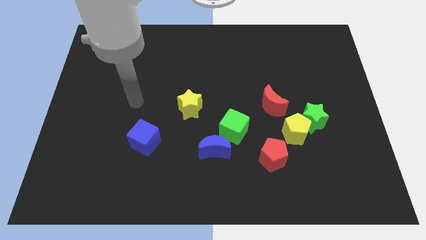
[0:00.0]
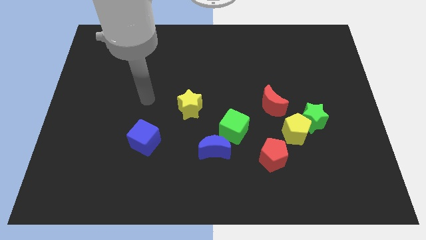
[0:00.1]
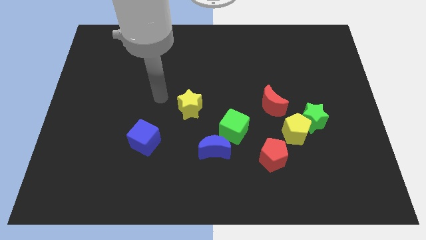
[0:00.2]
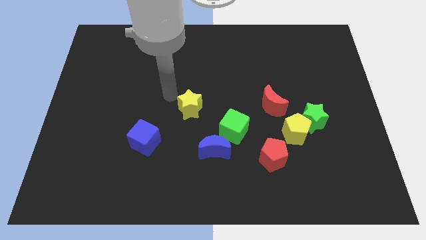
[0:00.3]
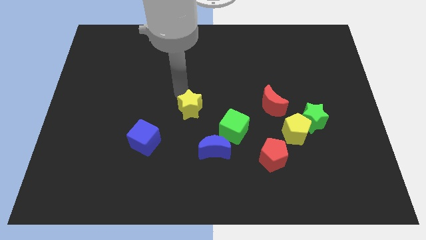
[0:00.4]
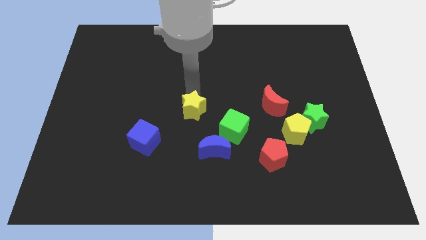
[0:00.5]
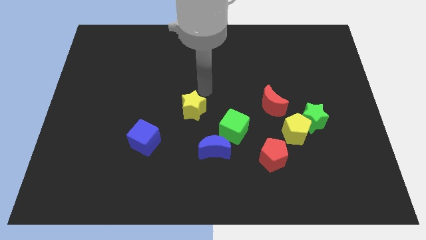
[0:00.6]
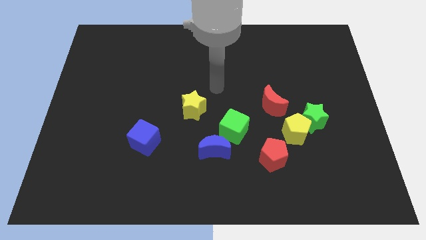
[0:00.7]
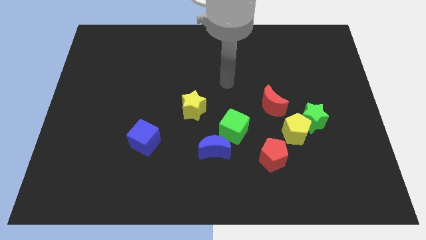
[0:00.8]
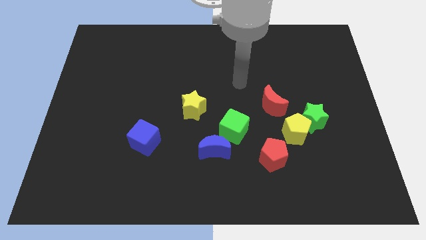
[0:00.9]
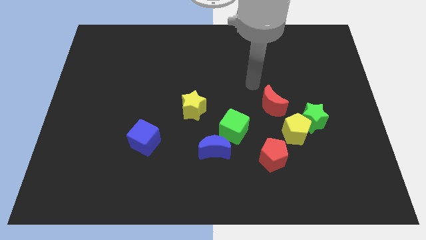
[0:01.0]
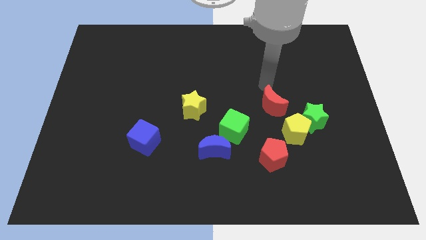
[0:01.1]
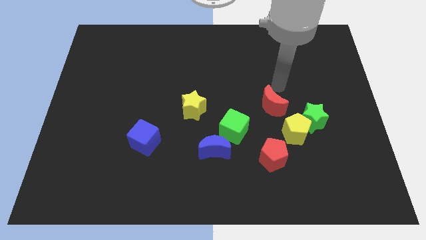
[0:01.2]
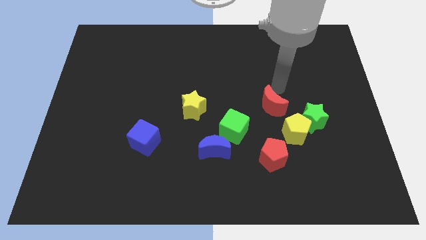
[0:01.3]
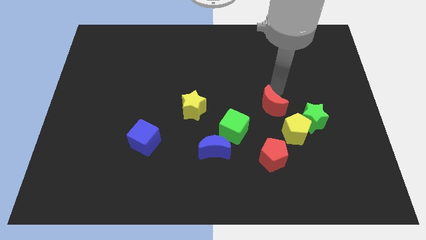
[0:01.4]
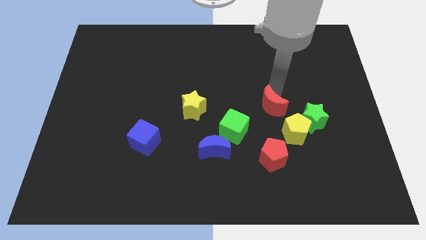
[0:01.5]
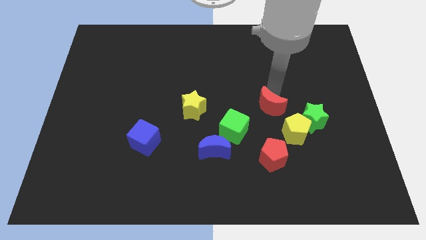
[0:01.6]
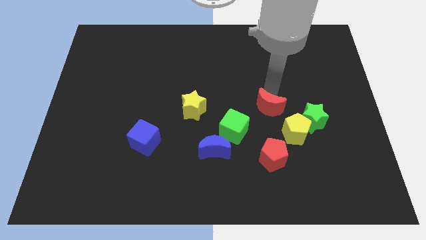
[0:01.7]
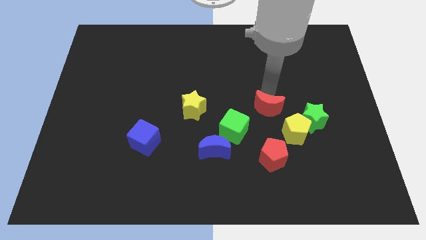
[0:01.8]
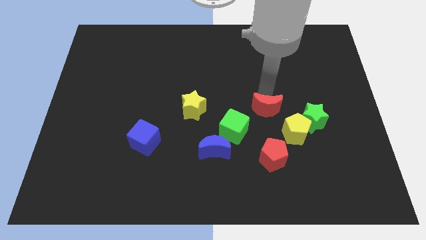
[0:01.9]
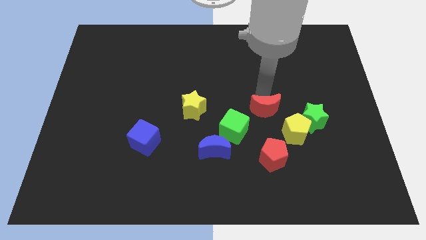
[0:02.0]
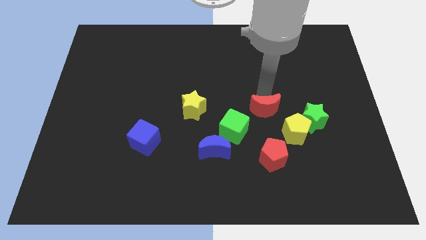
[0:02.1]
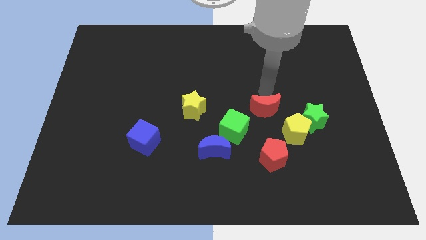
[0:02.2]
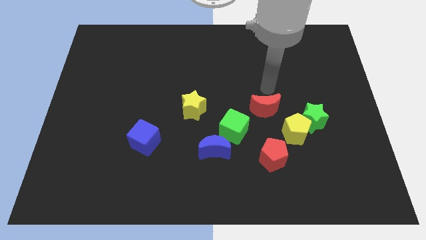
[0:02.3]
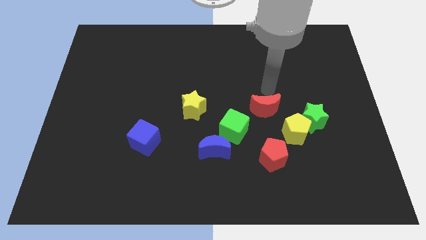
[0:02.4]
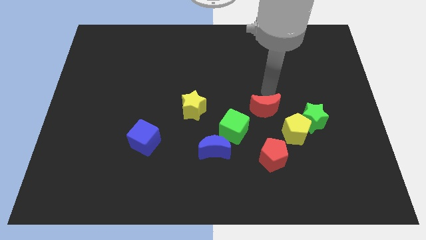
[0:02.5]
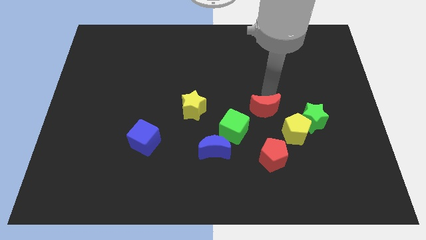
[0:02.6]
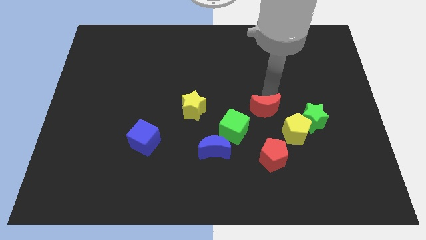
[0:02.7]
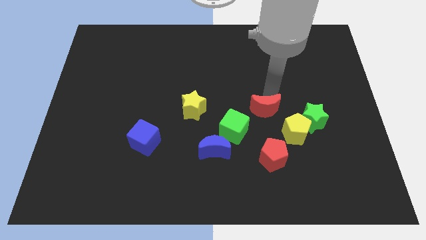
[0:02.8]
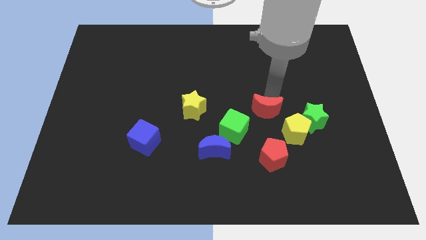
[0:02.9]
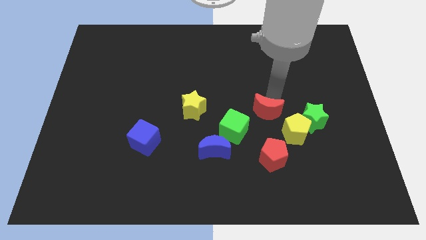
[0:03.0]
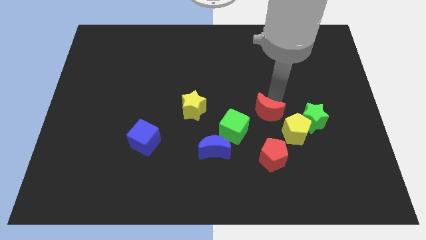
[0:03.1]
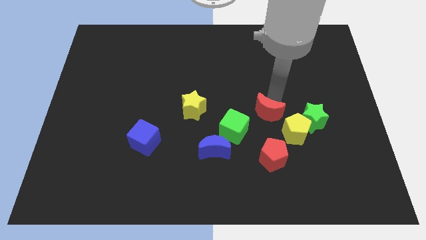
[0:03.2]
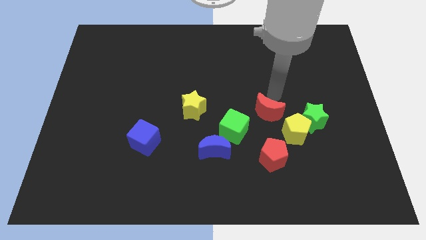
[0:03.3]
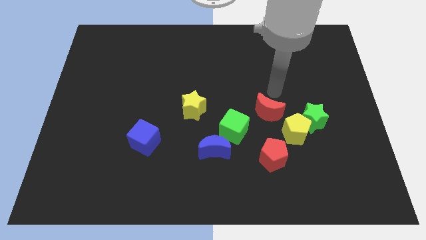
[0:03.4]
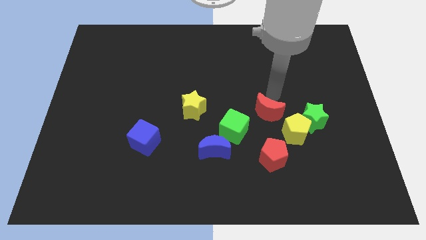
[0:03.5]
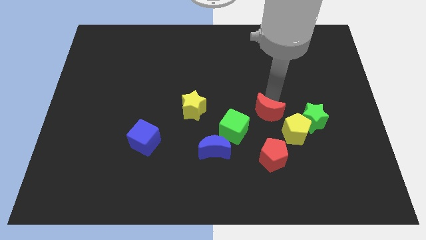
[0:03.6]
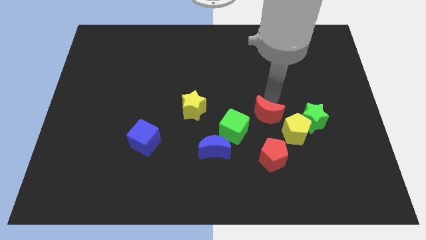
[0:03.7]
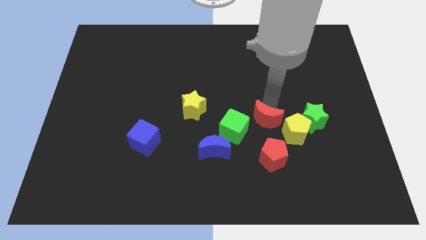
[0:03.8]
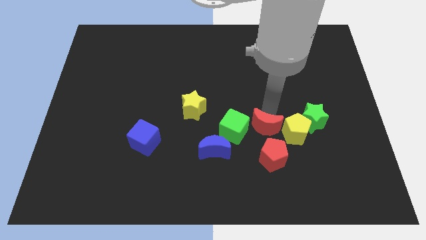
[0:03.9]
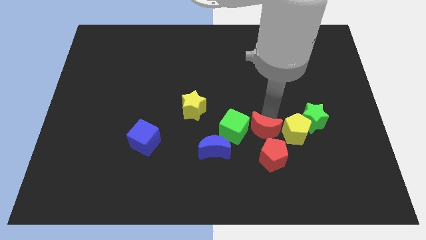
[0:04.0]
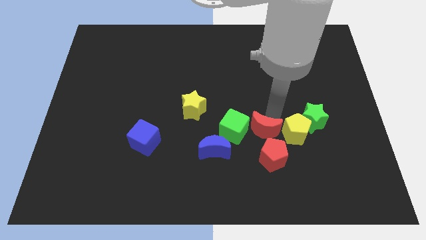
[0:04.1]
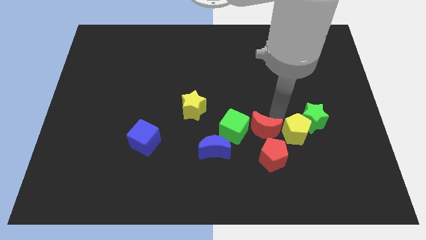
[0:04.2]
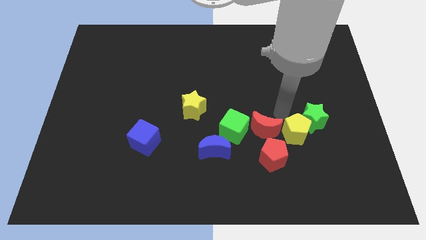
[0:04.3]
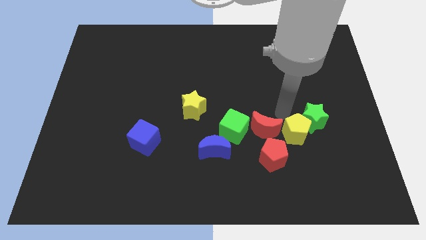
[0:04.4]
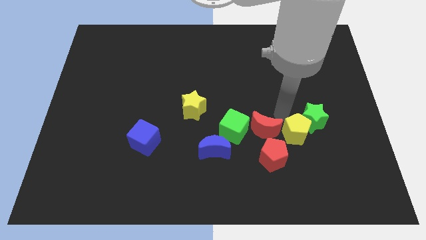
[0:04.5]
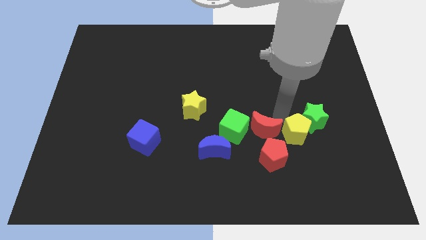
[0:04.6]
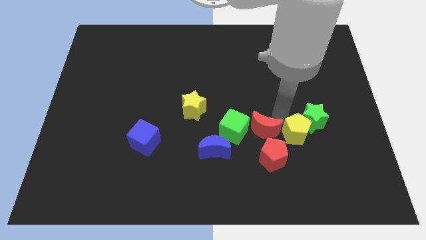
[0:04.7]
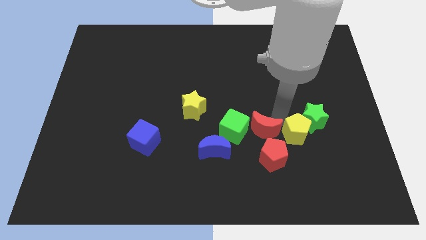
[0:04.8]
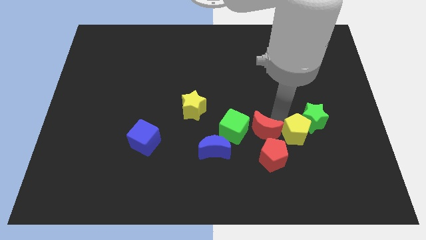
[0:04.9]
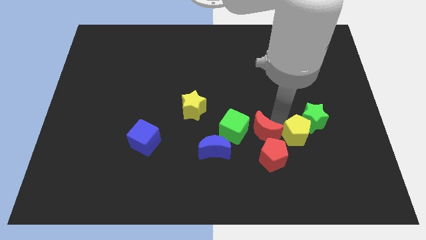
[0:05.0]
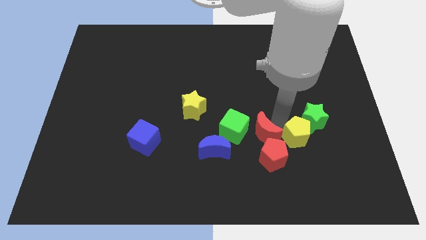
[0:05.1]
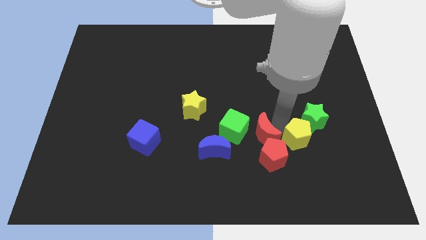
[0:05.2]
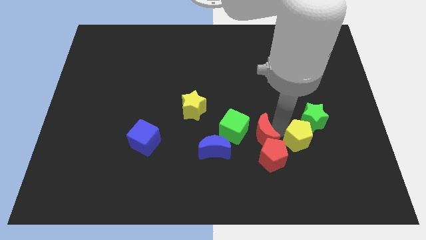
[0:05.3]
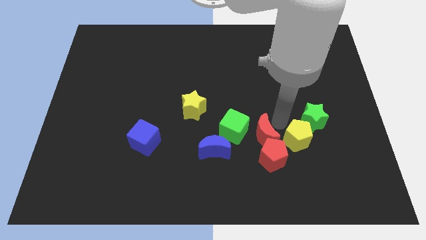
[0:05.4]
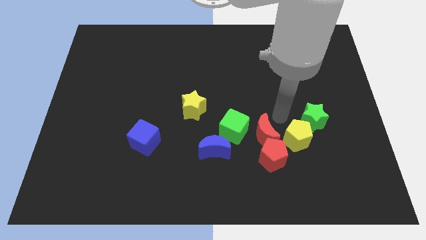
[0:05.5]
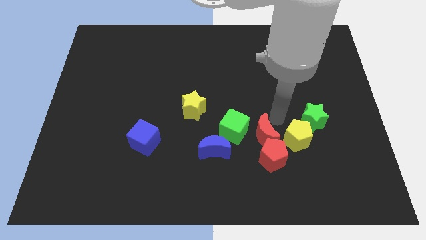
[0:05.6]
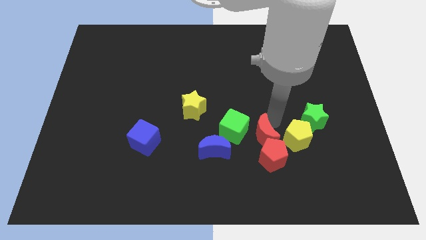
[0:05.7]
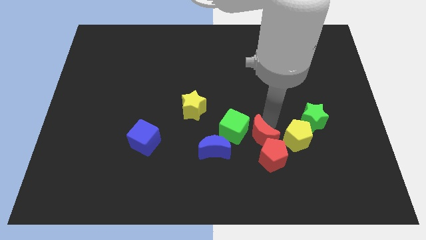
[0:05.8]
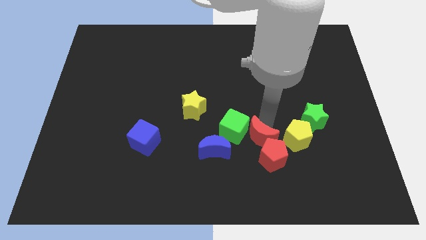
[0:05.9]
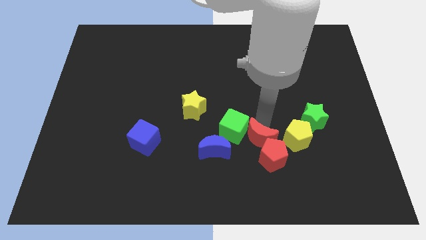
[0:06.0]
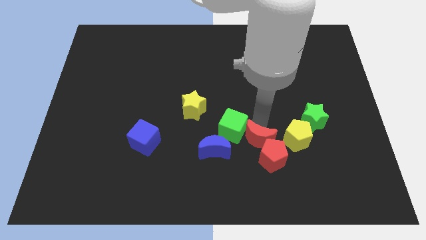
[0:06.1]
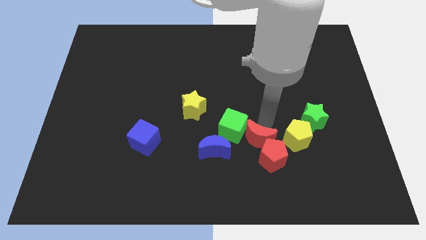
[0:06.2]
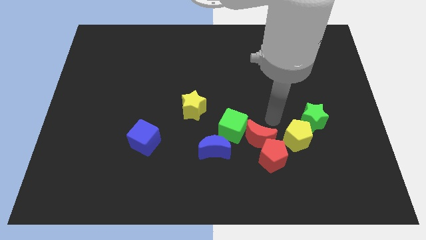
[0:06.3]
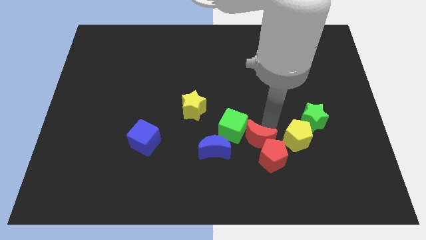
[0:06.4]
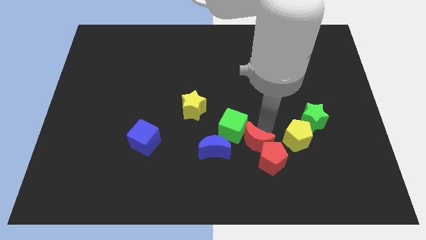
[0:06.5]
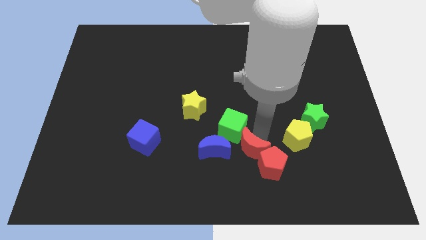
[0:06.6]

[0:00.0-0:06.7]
put the red moon to the bottom side of the green cube

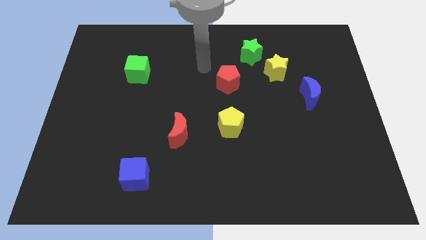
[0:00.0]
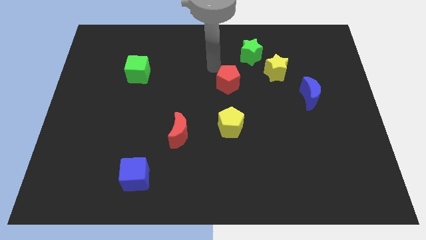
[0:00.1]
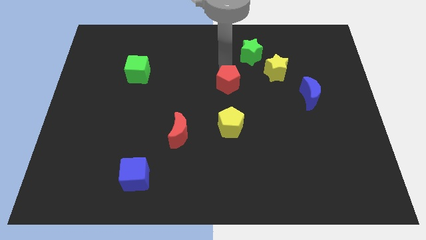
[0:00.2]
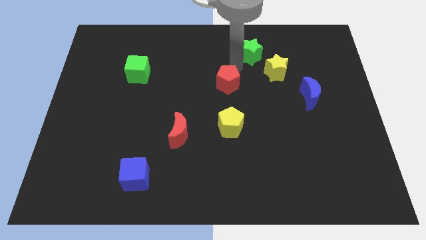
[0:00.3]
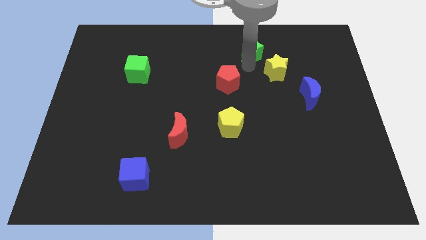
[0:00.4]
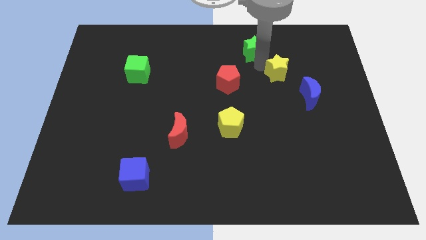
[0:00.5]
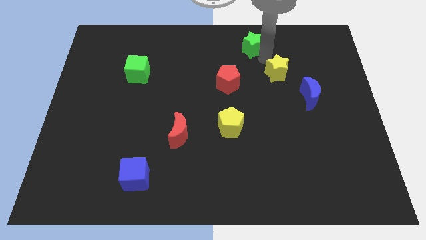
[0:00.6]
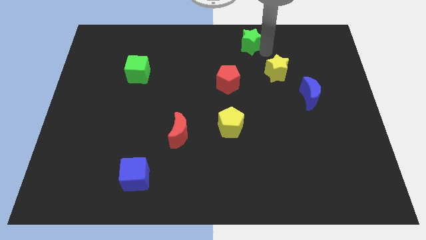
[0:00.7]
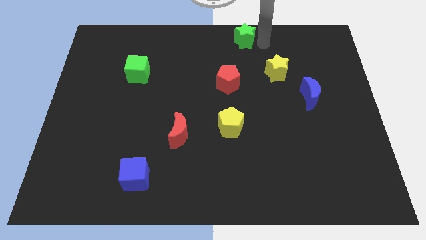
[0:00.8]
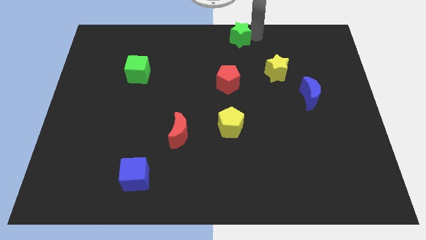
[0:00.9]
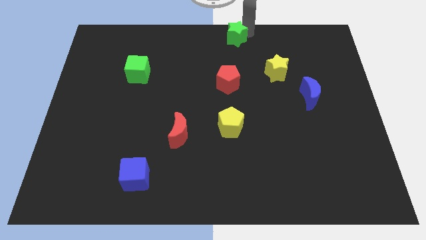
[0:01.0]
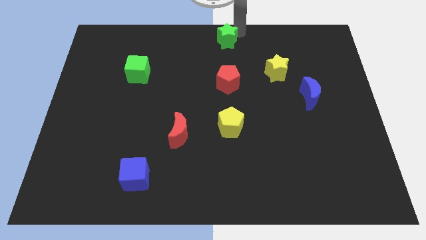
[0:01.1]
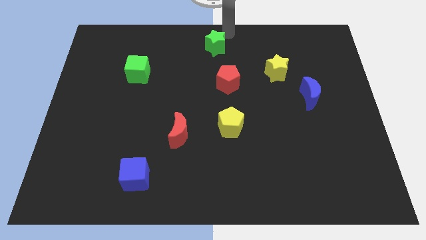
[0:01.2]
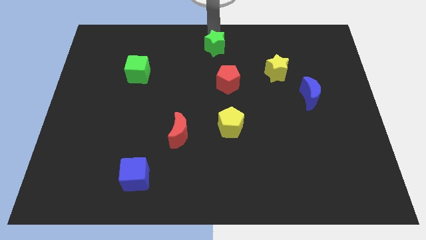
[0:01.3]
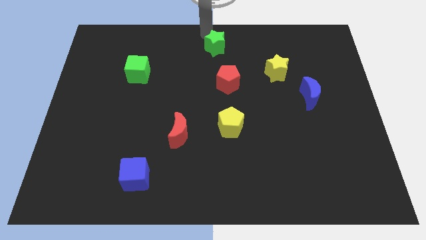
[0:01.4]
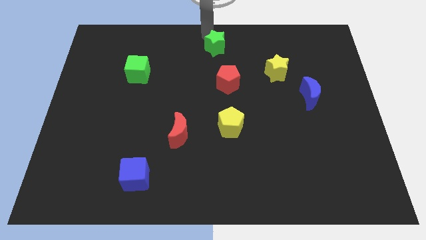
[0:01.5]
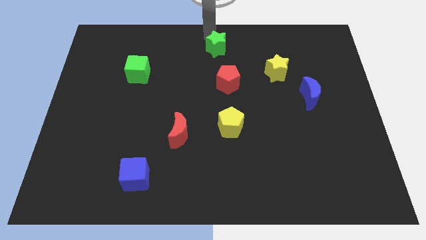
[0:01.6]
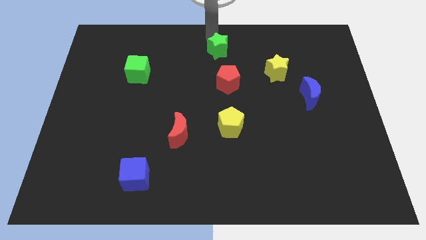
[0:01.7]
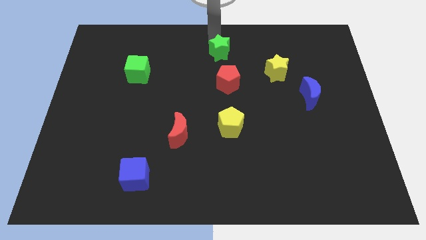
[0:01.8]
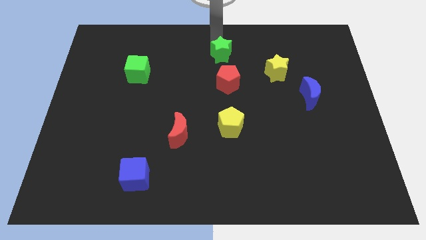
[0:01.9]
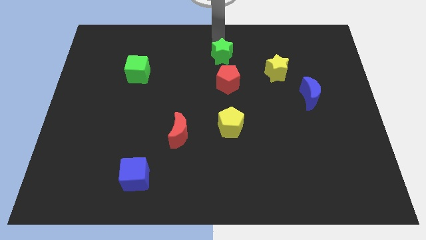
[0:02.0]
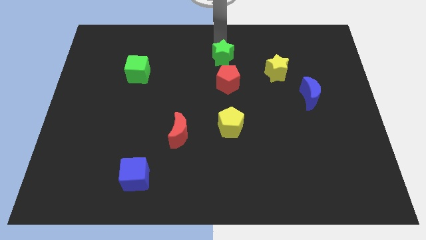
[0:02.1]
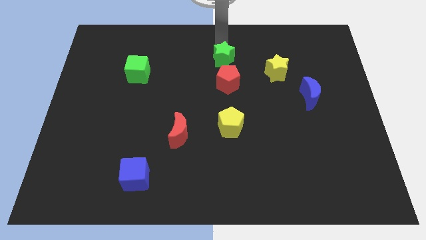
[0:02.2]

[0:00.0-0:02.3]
move the green star left of the yellow star
